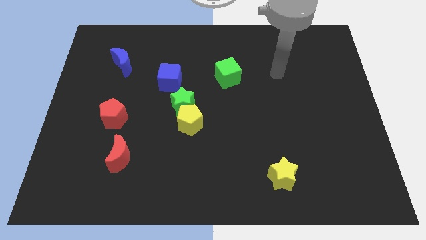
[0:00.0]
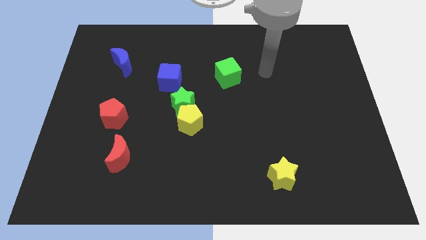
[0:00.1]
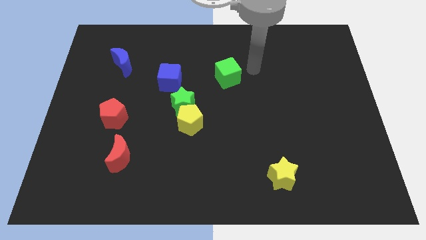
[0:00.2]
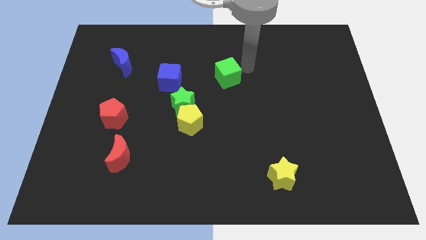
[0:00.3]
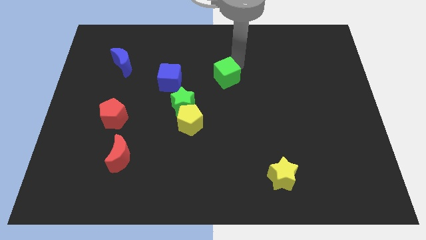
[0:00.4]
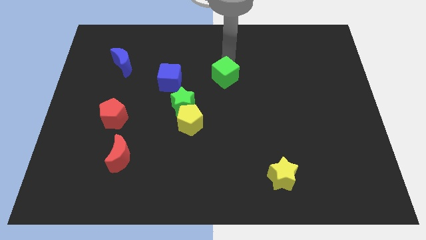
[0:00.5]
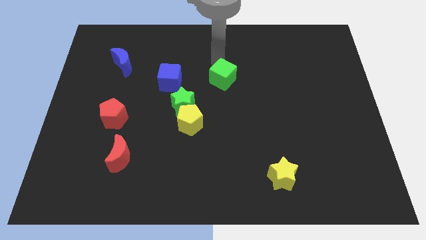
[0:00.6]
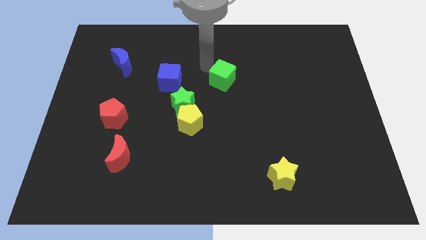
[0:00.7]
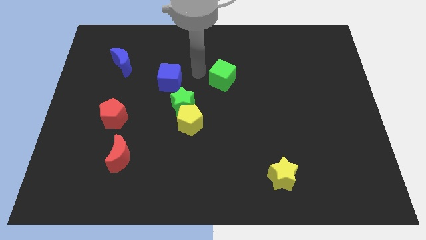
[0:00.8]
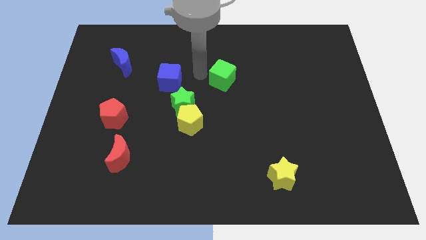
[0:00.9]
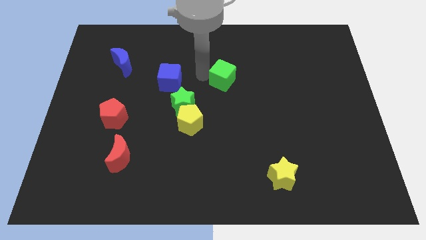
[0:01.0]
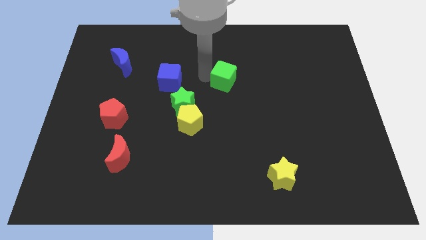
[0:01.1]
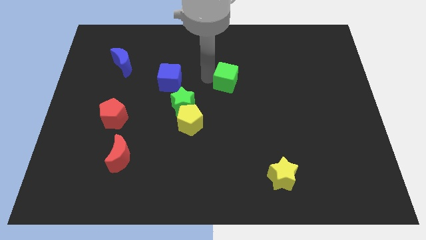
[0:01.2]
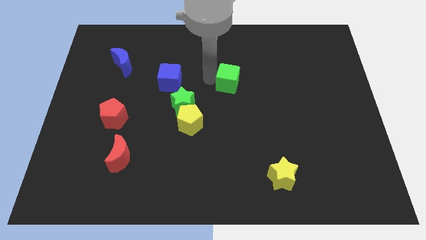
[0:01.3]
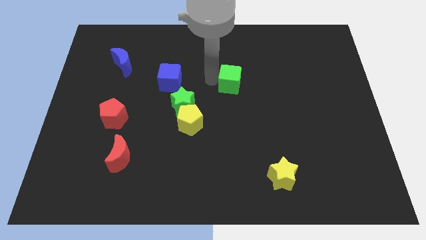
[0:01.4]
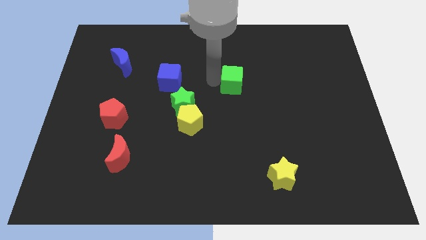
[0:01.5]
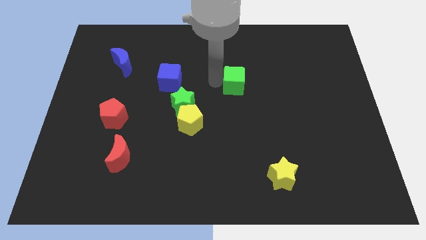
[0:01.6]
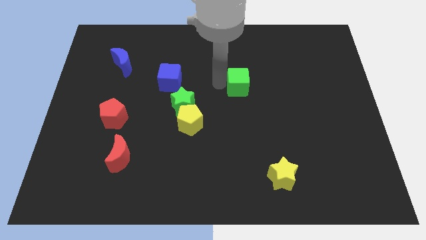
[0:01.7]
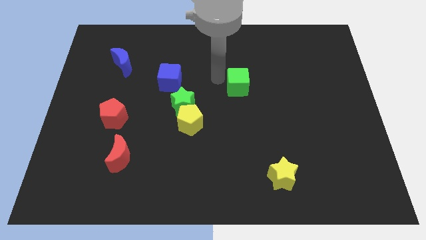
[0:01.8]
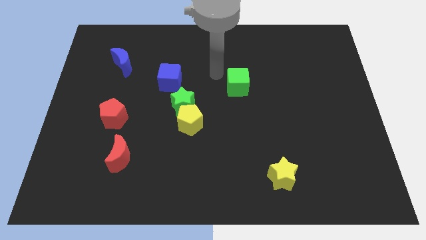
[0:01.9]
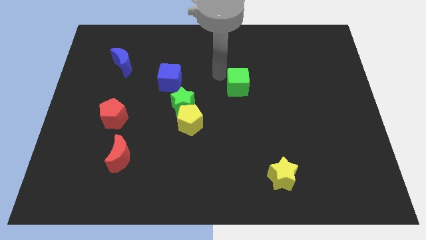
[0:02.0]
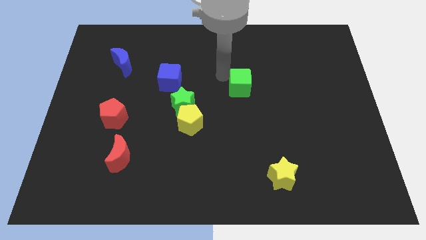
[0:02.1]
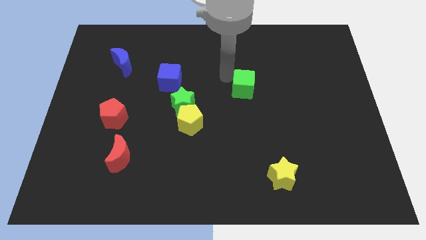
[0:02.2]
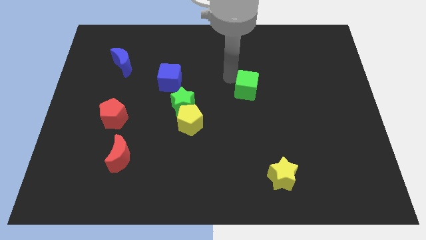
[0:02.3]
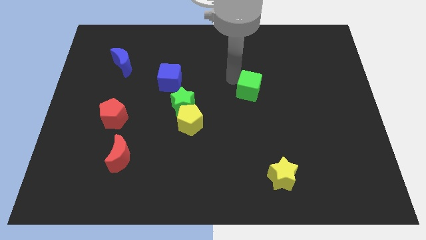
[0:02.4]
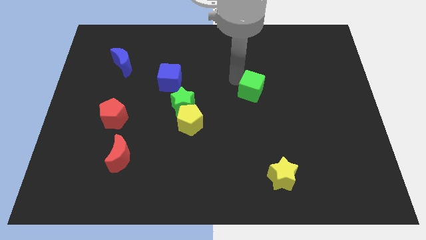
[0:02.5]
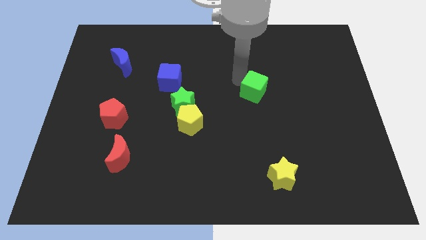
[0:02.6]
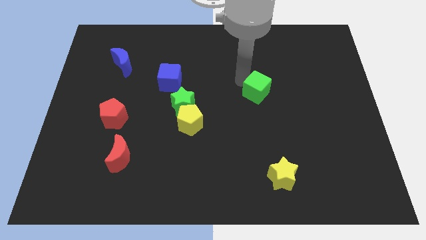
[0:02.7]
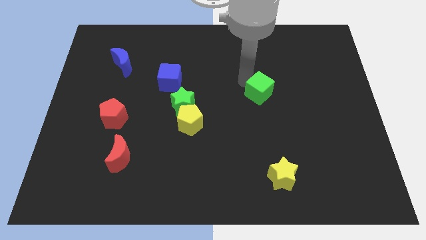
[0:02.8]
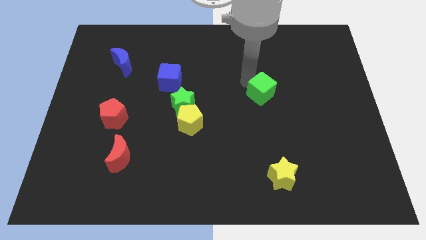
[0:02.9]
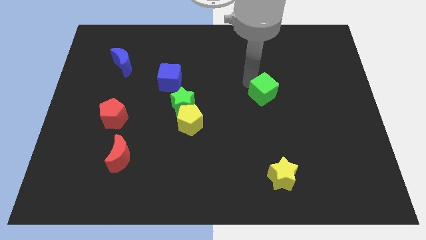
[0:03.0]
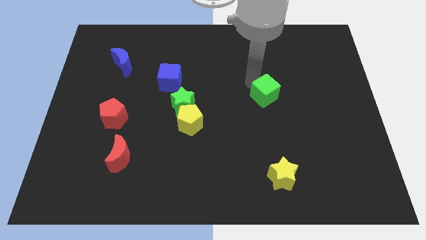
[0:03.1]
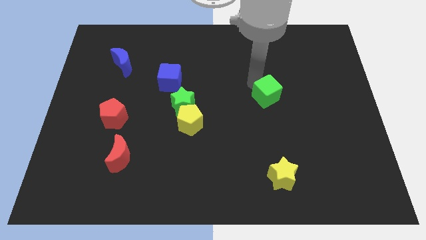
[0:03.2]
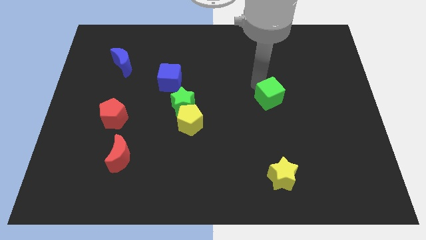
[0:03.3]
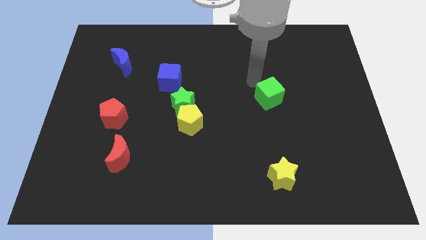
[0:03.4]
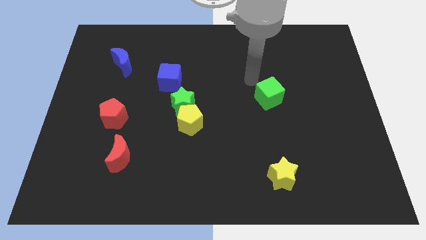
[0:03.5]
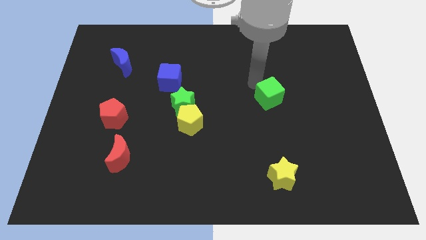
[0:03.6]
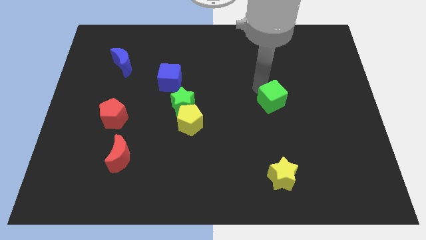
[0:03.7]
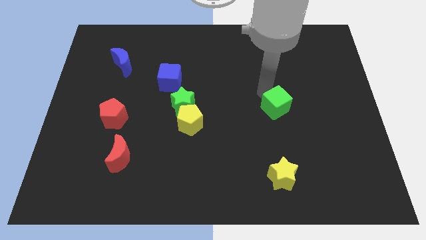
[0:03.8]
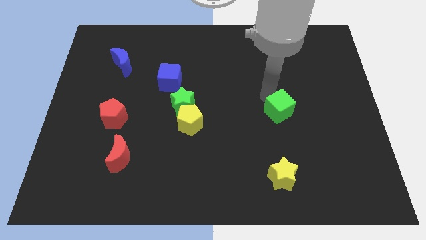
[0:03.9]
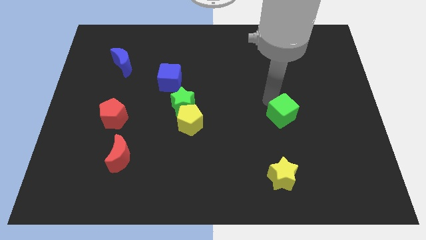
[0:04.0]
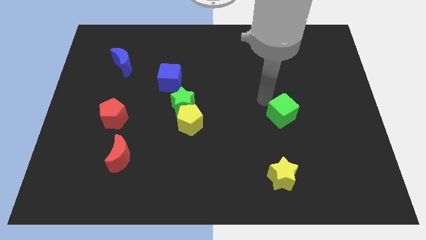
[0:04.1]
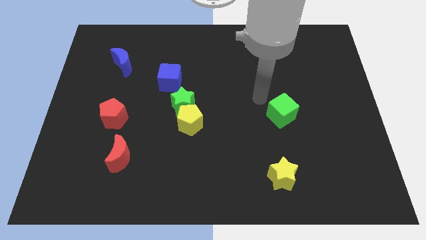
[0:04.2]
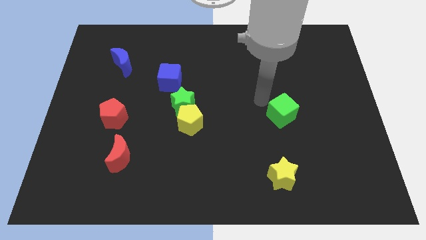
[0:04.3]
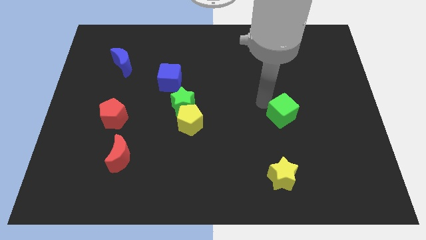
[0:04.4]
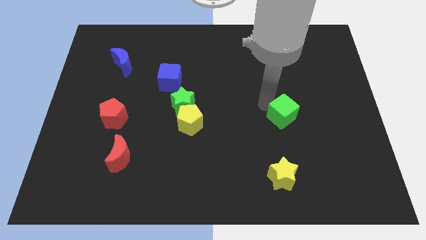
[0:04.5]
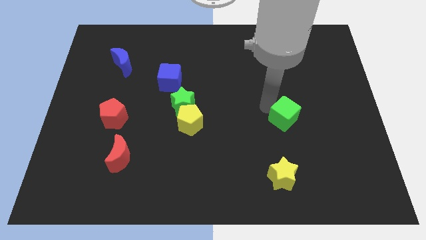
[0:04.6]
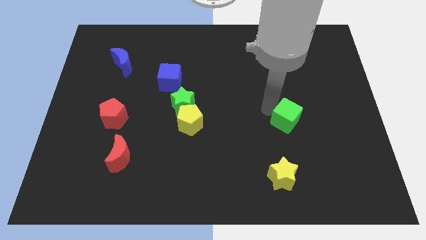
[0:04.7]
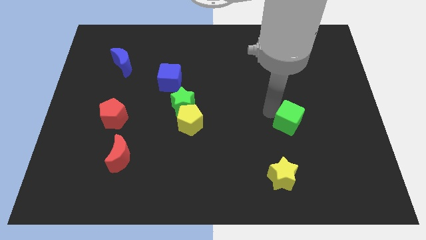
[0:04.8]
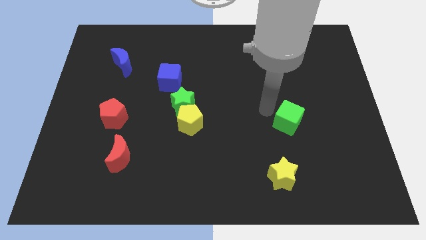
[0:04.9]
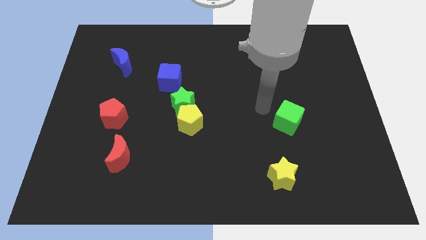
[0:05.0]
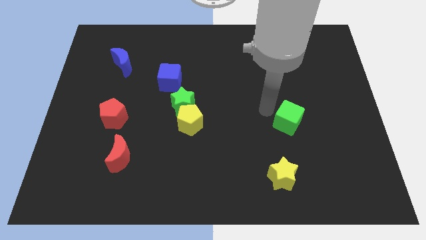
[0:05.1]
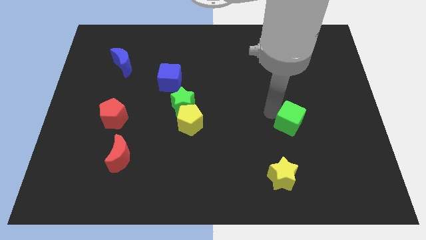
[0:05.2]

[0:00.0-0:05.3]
slide the green cube downwards and then to the right

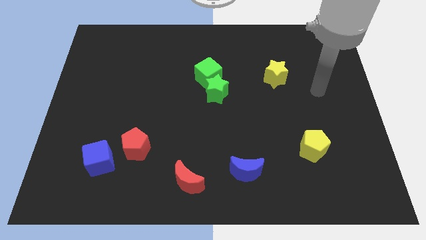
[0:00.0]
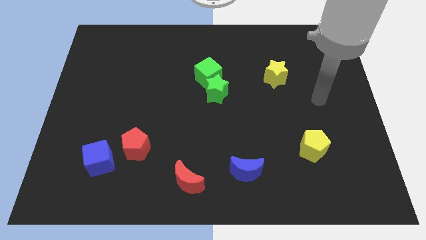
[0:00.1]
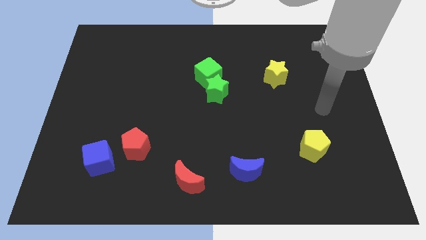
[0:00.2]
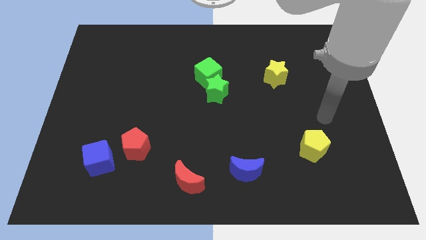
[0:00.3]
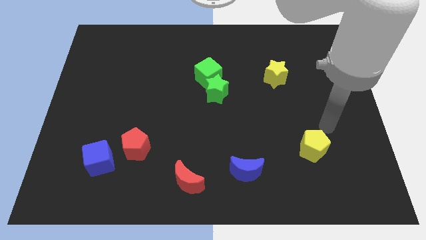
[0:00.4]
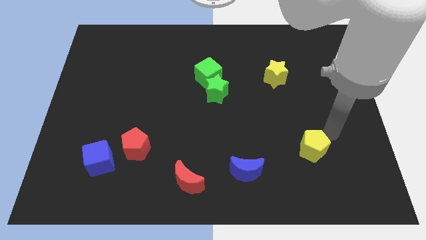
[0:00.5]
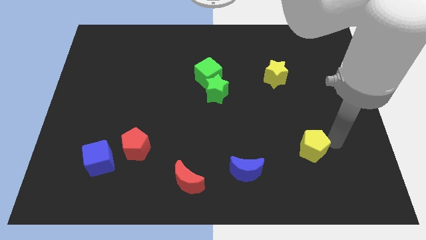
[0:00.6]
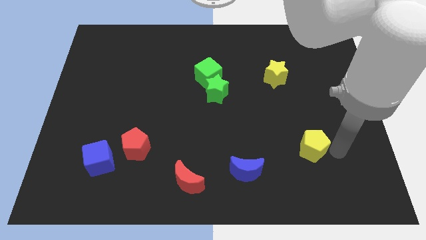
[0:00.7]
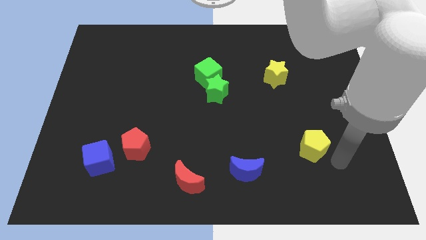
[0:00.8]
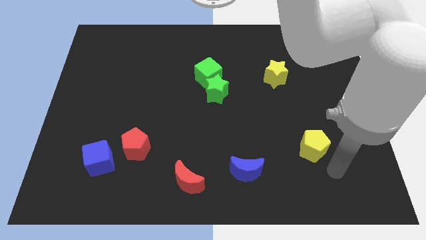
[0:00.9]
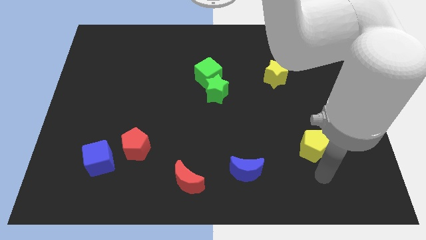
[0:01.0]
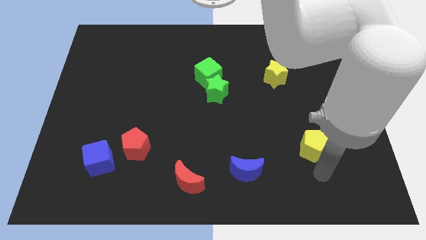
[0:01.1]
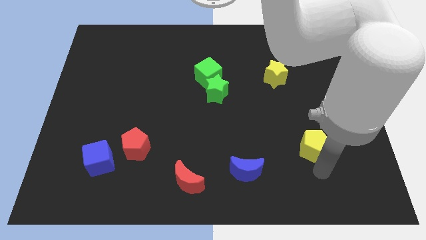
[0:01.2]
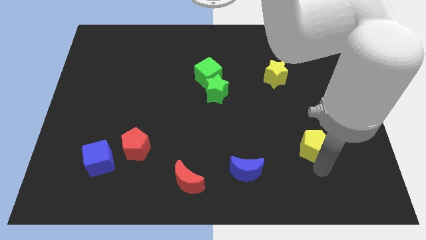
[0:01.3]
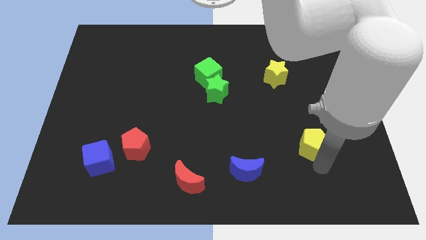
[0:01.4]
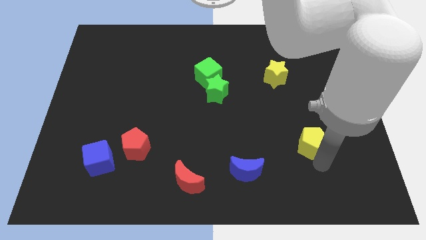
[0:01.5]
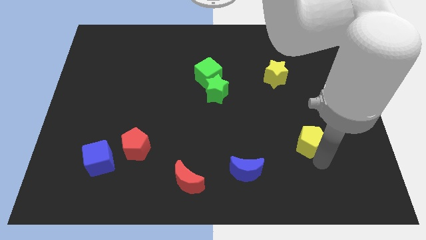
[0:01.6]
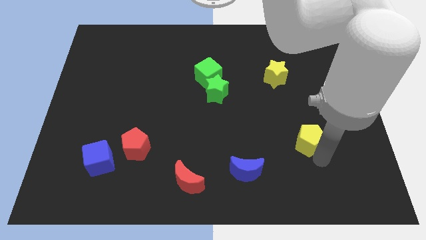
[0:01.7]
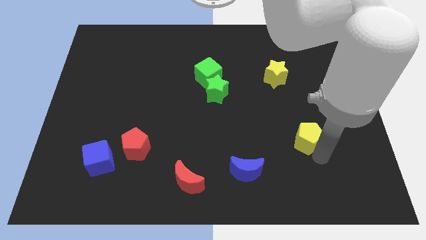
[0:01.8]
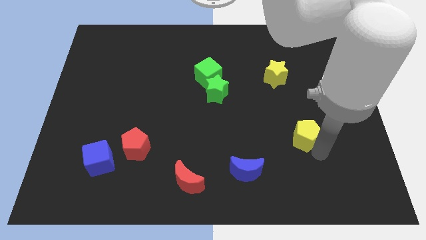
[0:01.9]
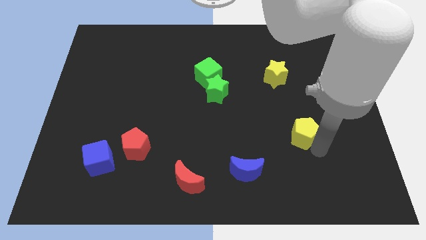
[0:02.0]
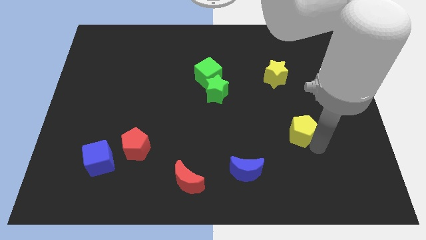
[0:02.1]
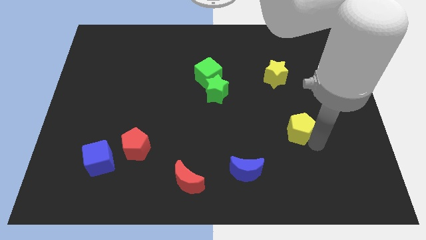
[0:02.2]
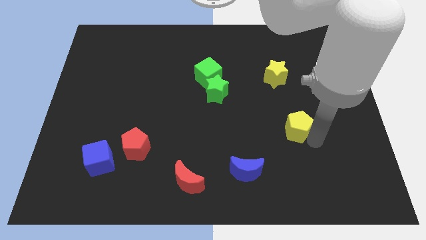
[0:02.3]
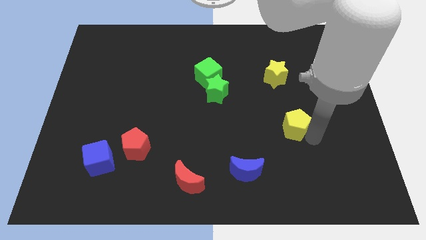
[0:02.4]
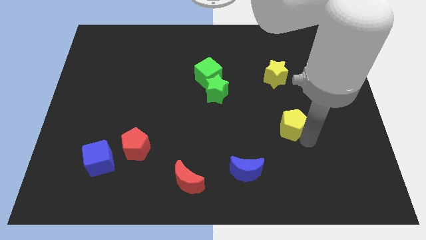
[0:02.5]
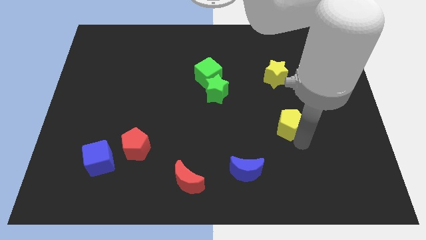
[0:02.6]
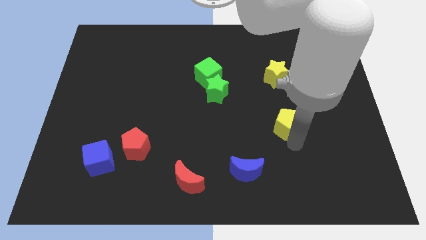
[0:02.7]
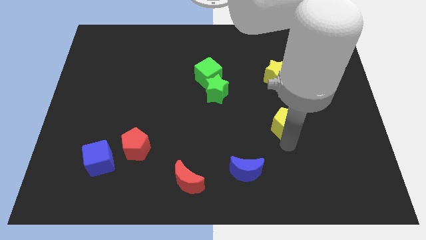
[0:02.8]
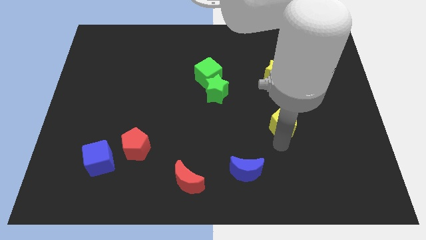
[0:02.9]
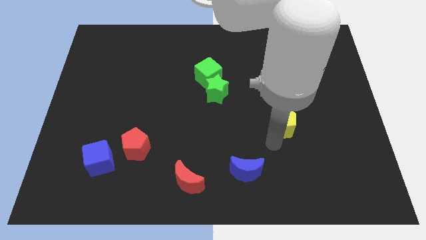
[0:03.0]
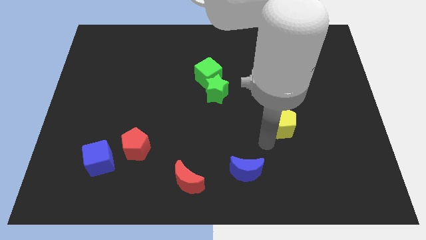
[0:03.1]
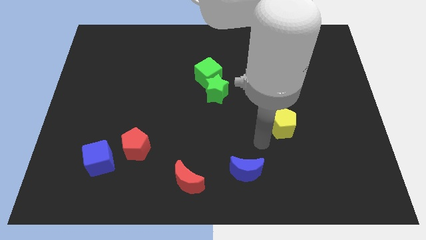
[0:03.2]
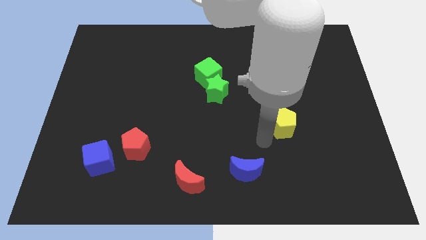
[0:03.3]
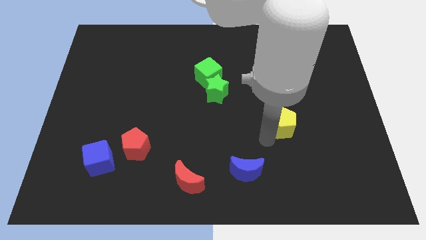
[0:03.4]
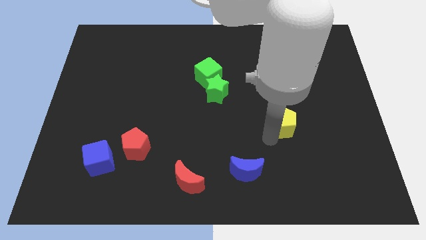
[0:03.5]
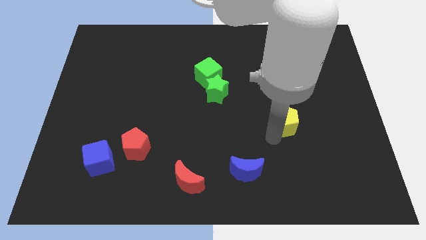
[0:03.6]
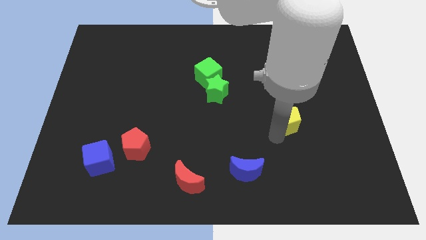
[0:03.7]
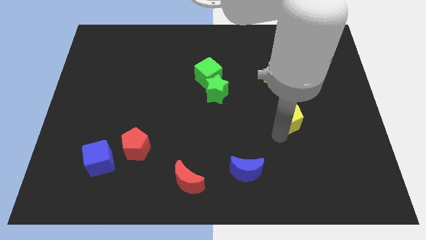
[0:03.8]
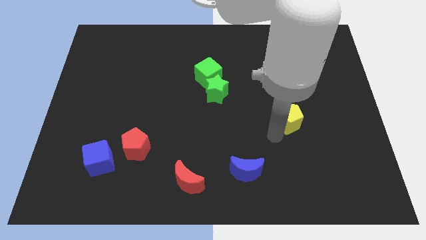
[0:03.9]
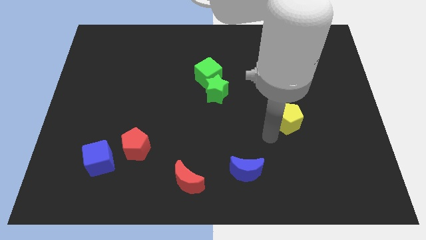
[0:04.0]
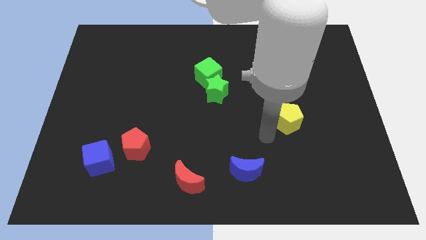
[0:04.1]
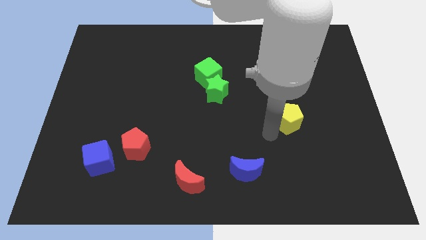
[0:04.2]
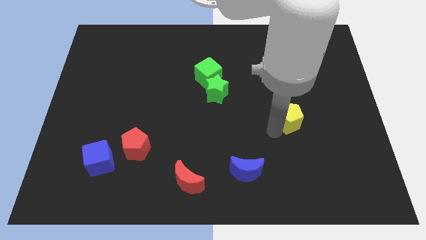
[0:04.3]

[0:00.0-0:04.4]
slide the yellow pentagon somewhat upwards
